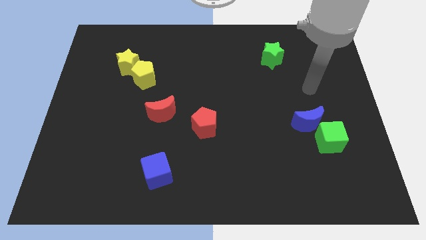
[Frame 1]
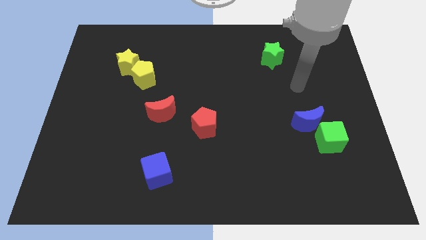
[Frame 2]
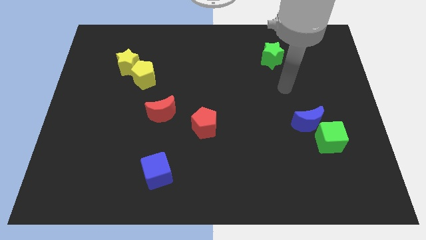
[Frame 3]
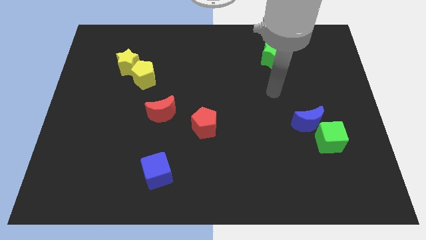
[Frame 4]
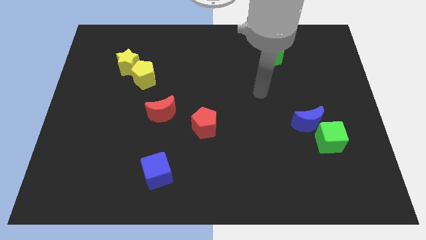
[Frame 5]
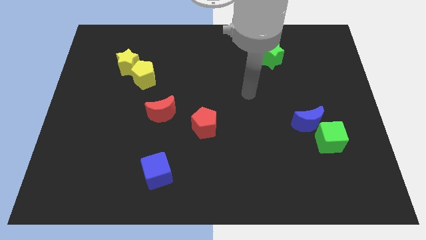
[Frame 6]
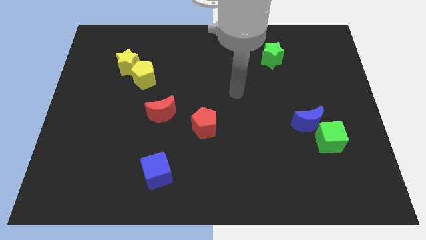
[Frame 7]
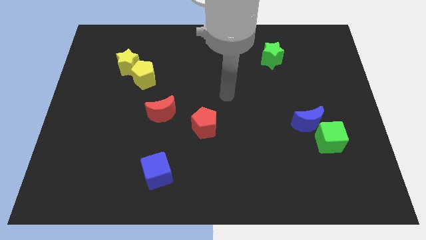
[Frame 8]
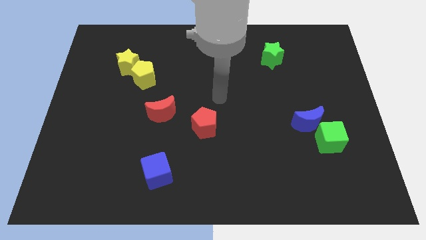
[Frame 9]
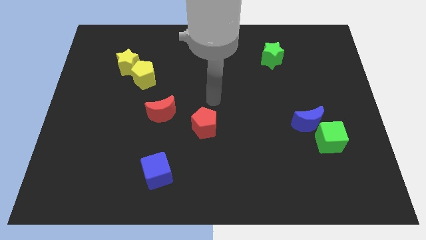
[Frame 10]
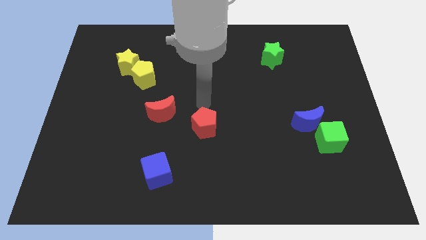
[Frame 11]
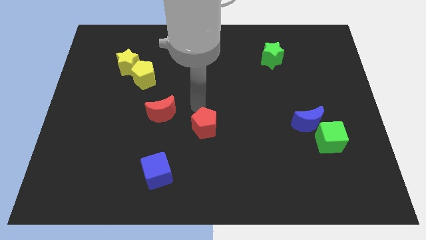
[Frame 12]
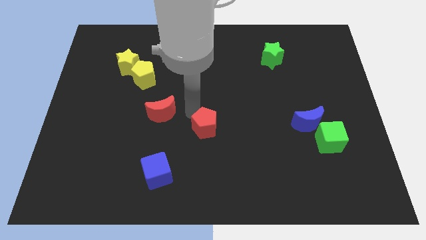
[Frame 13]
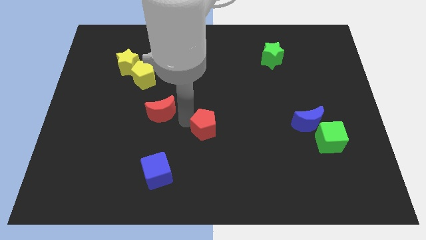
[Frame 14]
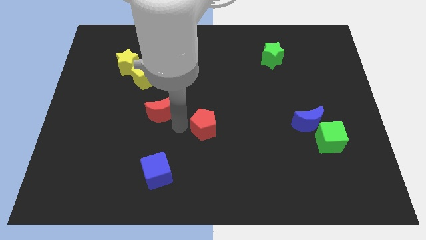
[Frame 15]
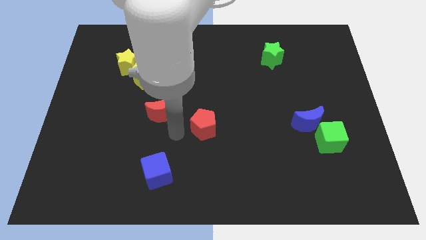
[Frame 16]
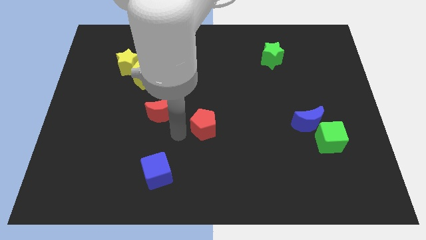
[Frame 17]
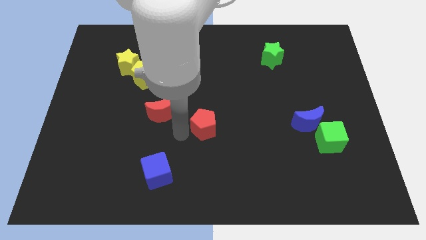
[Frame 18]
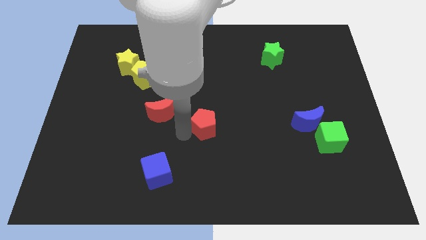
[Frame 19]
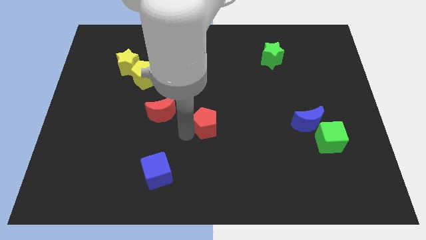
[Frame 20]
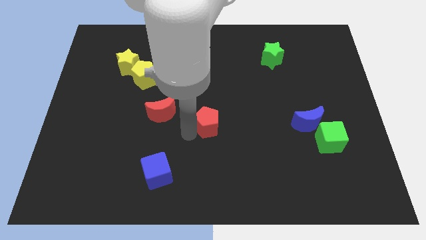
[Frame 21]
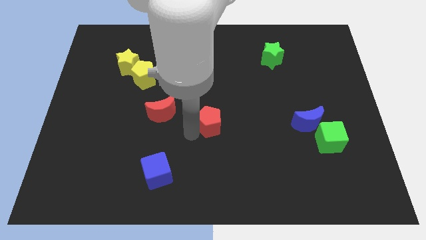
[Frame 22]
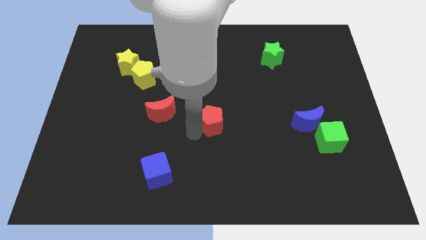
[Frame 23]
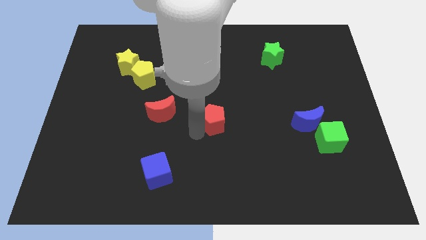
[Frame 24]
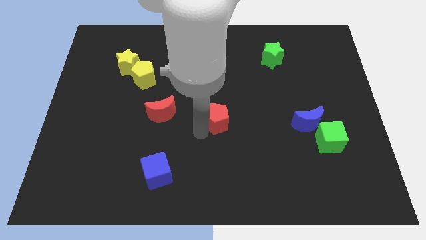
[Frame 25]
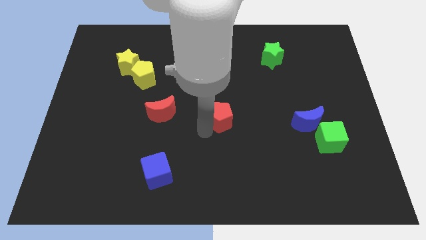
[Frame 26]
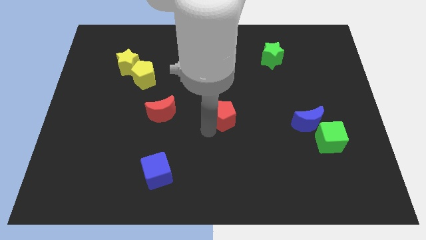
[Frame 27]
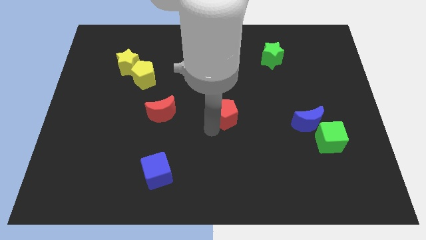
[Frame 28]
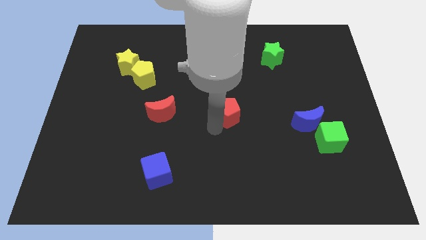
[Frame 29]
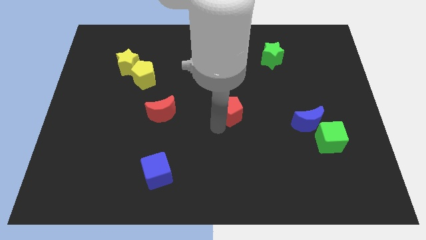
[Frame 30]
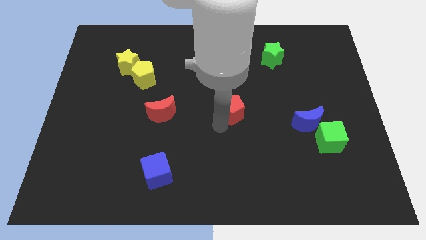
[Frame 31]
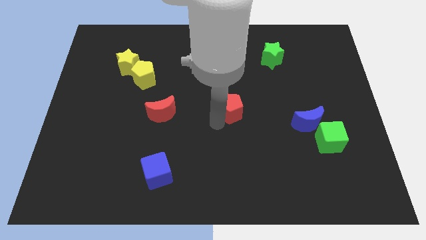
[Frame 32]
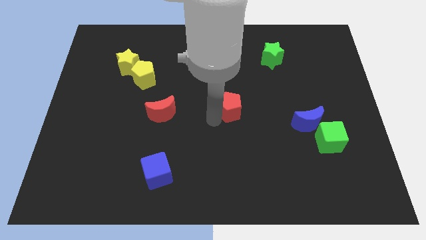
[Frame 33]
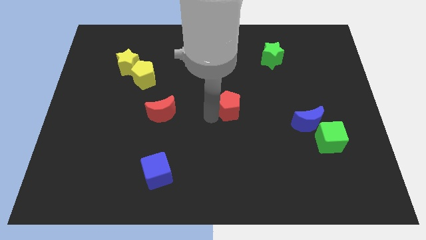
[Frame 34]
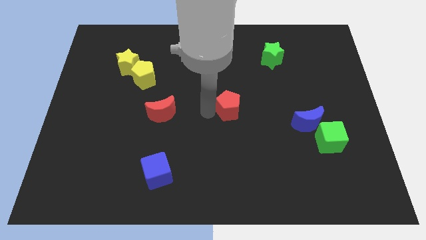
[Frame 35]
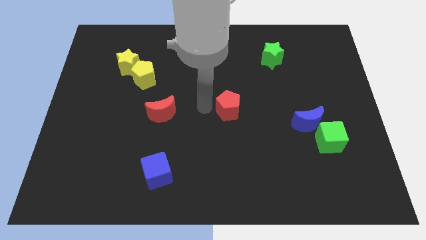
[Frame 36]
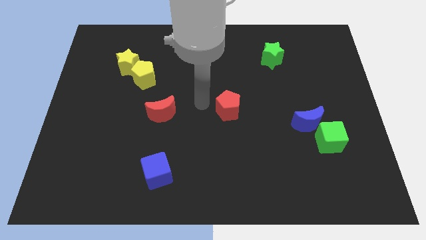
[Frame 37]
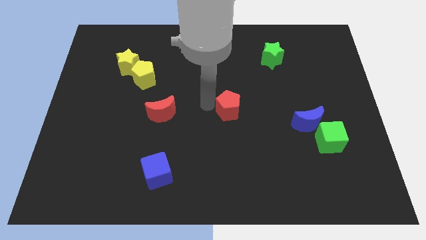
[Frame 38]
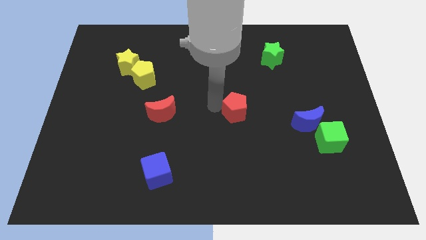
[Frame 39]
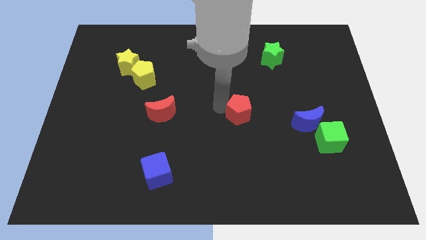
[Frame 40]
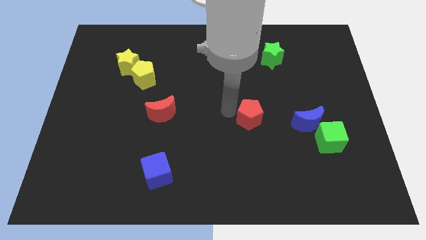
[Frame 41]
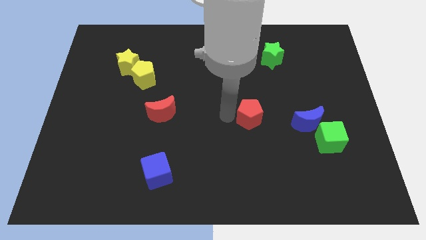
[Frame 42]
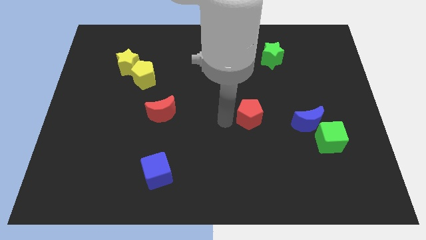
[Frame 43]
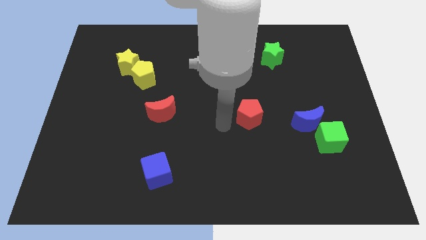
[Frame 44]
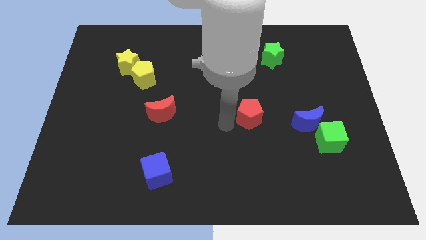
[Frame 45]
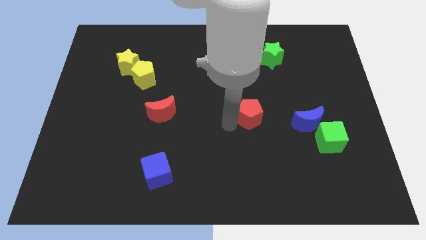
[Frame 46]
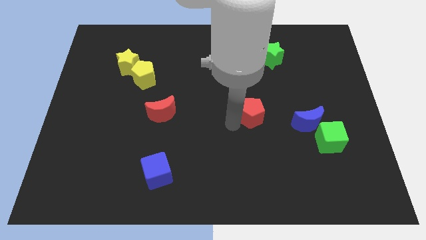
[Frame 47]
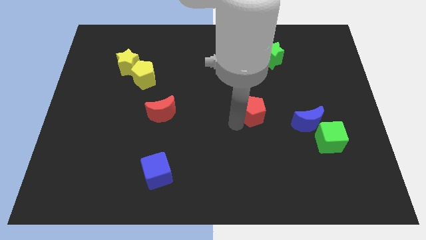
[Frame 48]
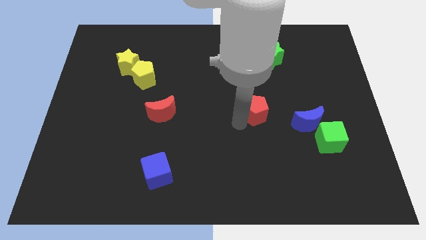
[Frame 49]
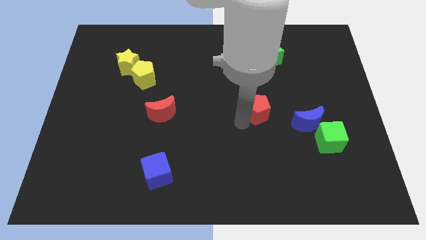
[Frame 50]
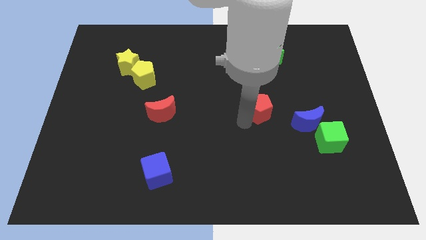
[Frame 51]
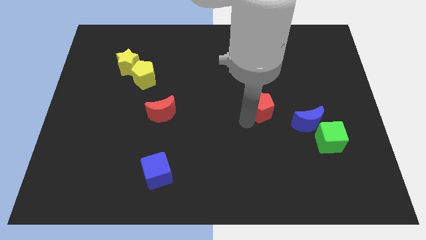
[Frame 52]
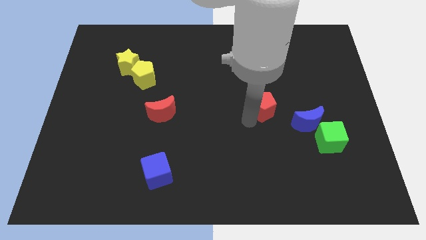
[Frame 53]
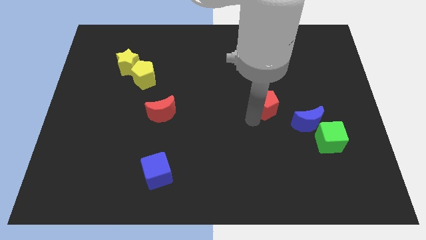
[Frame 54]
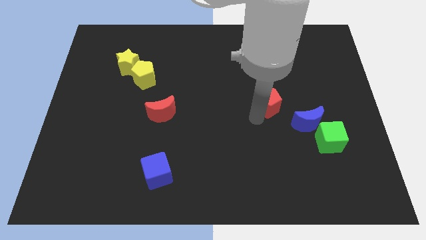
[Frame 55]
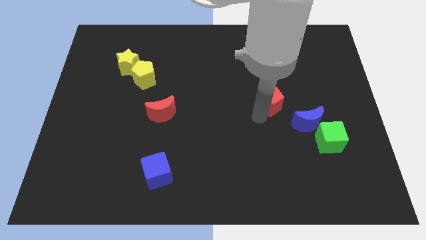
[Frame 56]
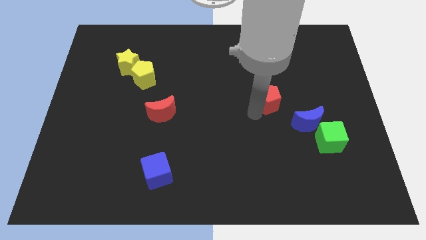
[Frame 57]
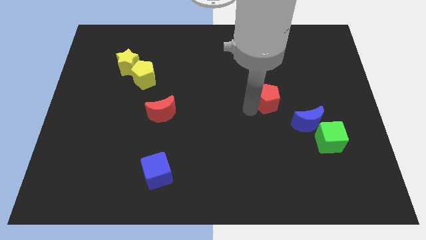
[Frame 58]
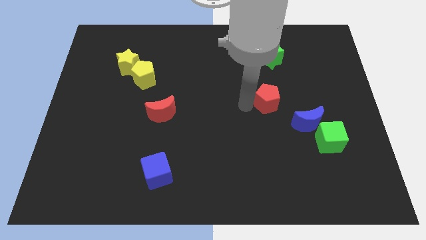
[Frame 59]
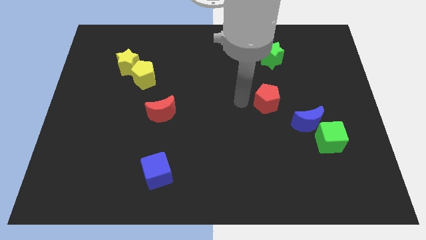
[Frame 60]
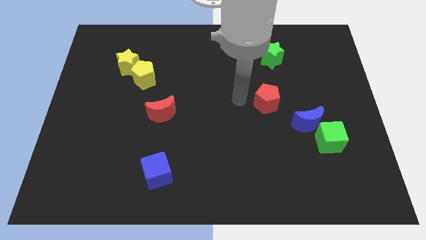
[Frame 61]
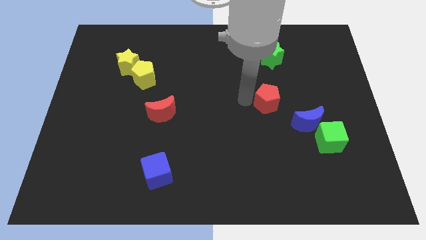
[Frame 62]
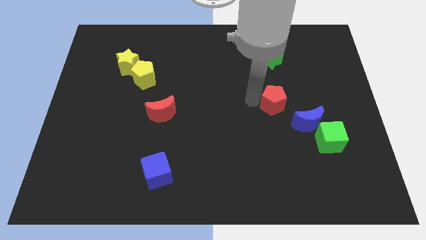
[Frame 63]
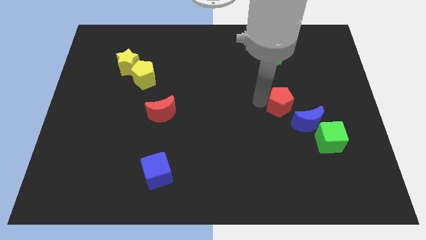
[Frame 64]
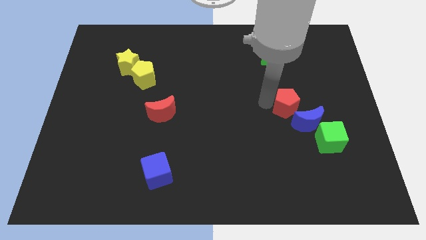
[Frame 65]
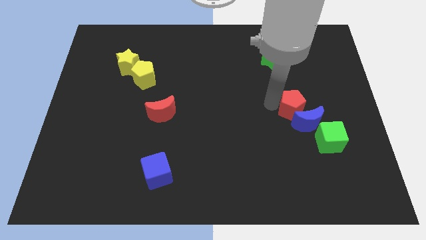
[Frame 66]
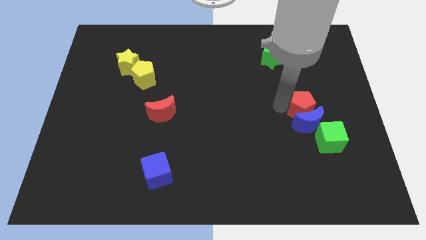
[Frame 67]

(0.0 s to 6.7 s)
slide the red pentagon diagonally up and to the right of the blue moon
